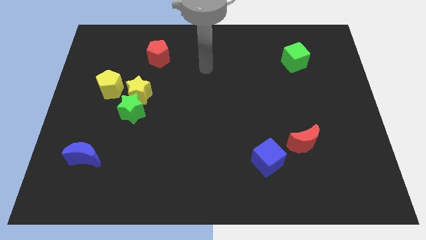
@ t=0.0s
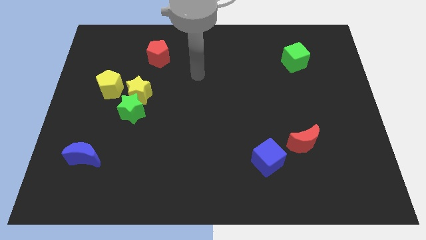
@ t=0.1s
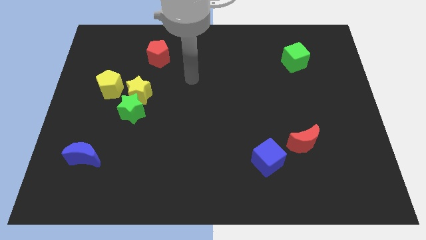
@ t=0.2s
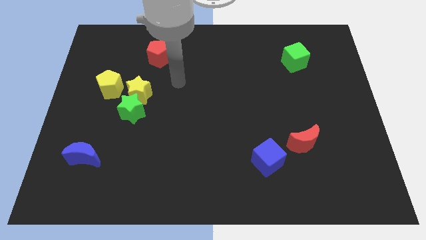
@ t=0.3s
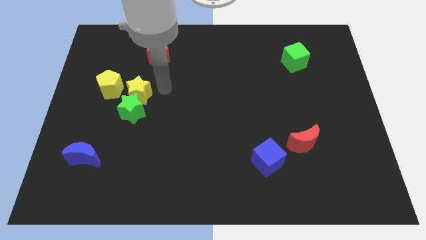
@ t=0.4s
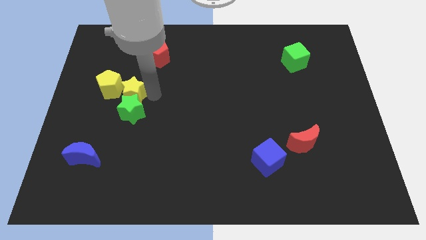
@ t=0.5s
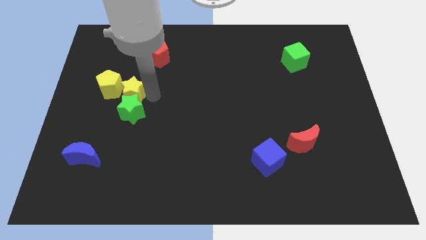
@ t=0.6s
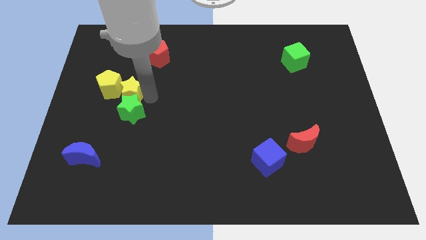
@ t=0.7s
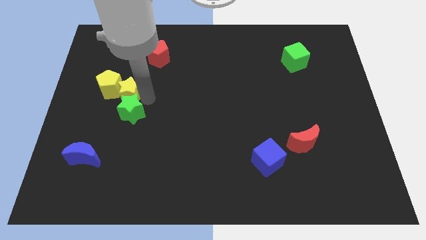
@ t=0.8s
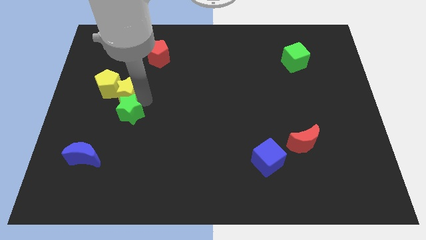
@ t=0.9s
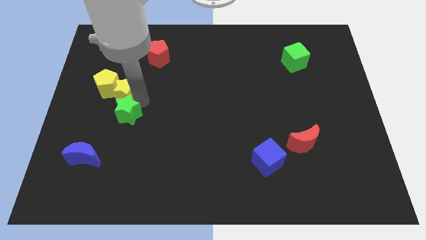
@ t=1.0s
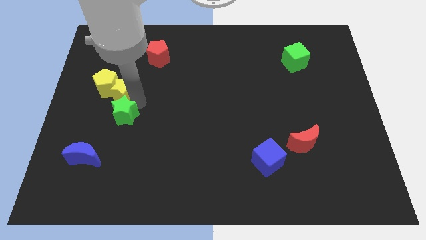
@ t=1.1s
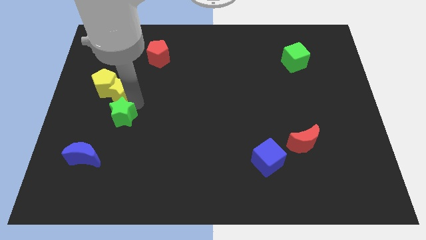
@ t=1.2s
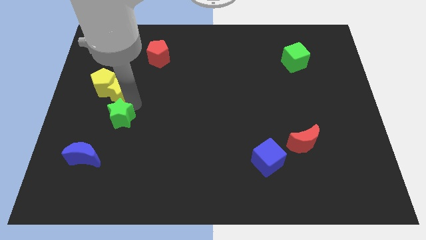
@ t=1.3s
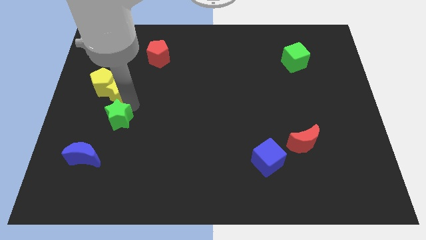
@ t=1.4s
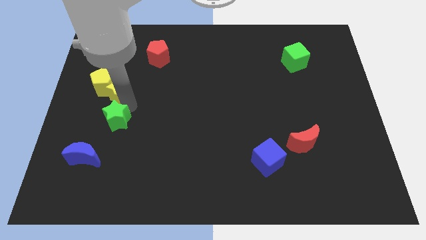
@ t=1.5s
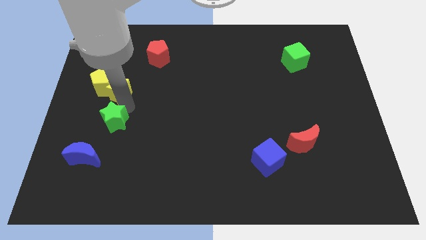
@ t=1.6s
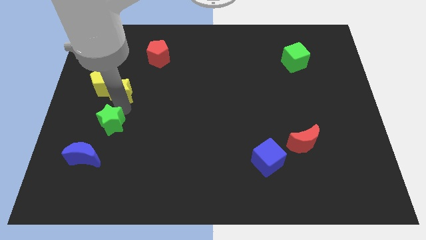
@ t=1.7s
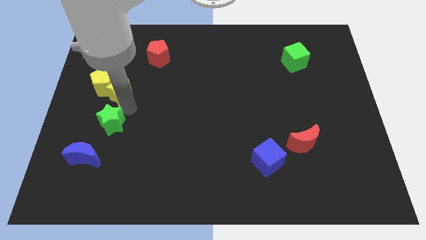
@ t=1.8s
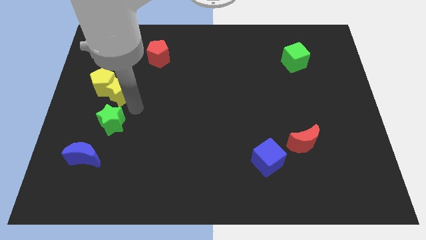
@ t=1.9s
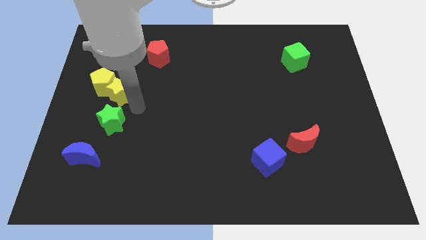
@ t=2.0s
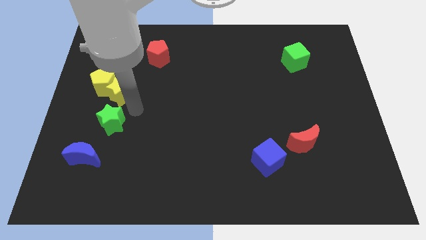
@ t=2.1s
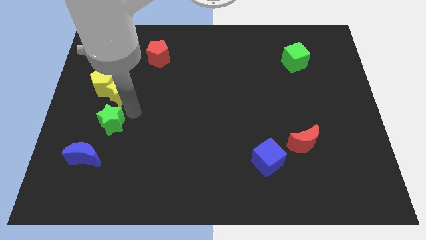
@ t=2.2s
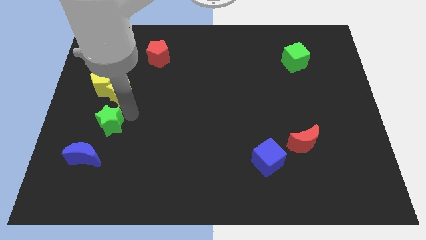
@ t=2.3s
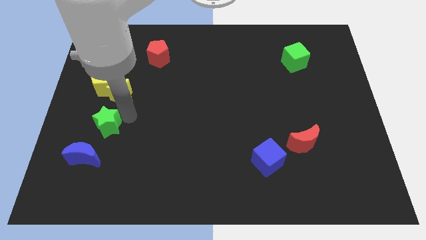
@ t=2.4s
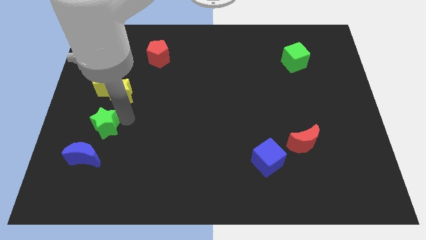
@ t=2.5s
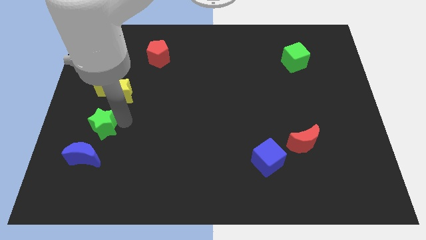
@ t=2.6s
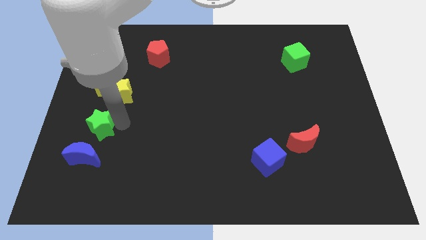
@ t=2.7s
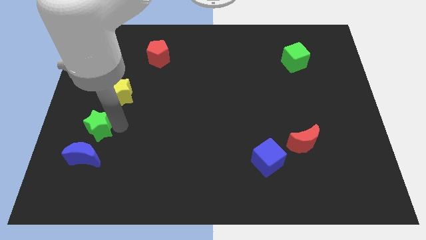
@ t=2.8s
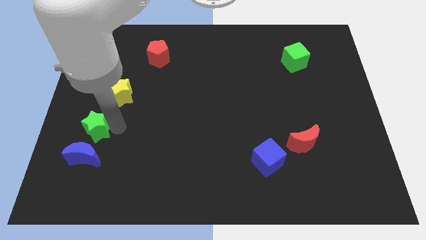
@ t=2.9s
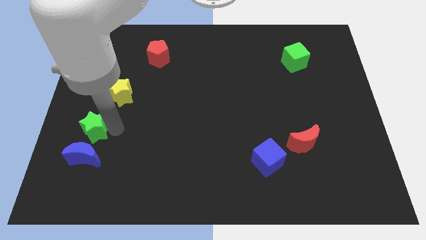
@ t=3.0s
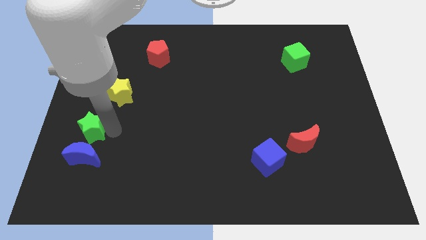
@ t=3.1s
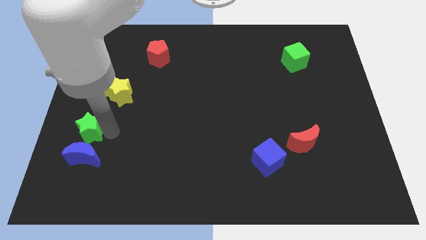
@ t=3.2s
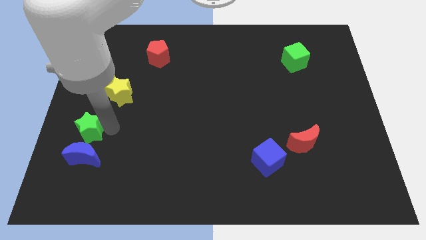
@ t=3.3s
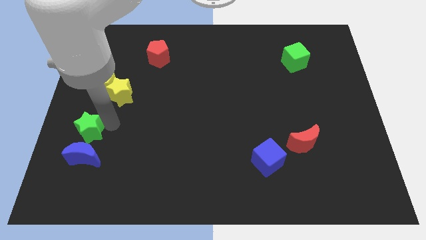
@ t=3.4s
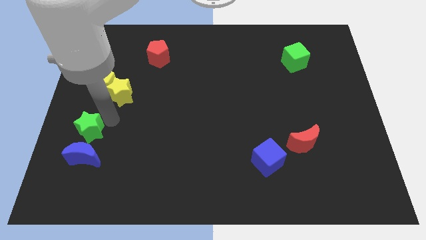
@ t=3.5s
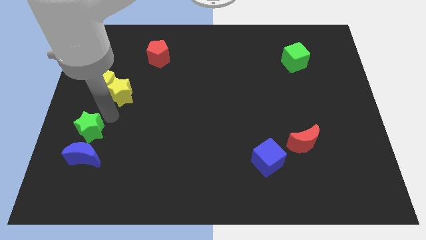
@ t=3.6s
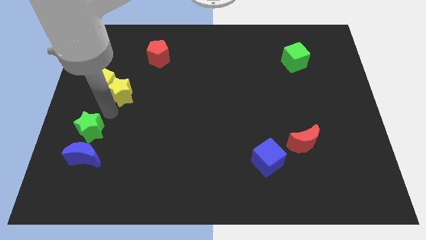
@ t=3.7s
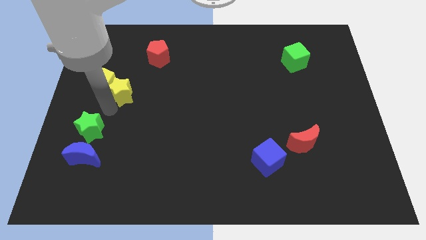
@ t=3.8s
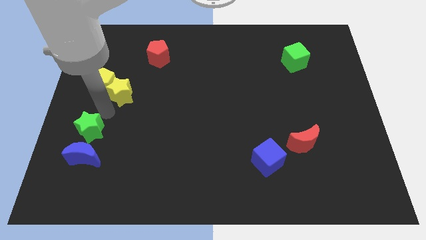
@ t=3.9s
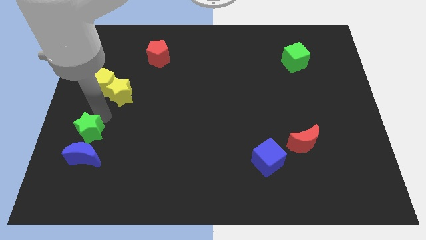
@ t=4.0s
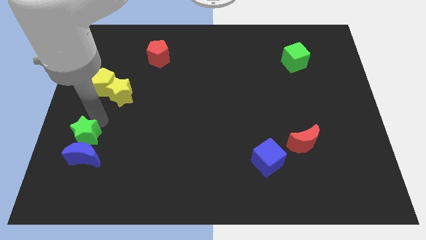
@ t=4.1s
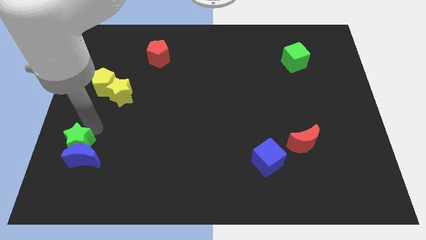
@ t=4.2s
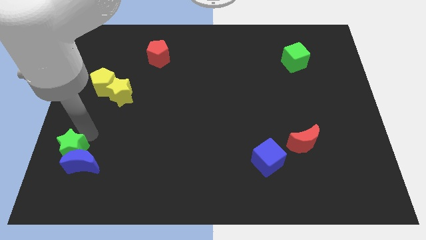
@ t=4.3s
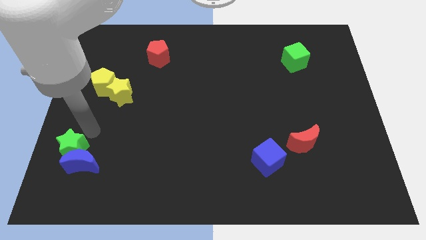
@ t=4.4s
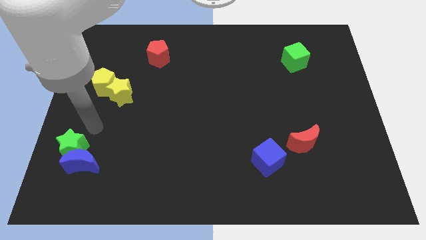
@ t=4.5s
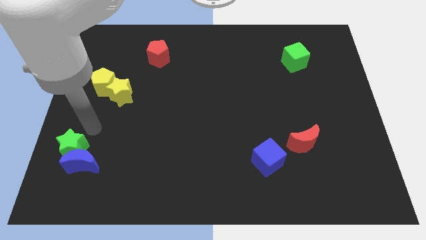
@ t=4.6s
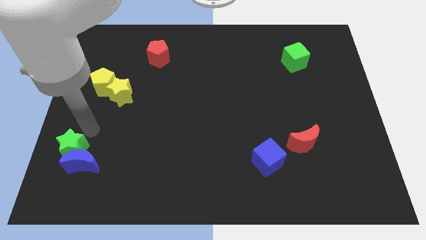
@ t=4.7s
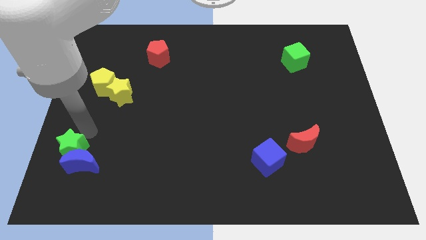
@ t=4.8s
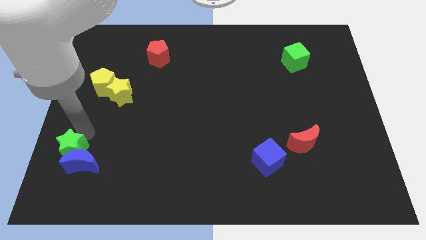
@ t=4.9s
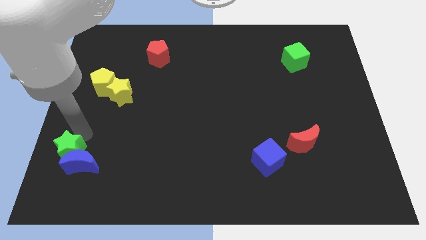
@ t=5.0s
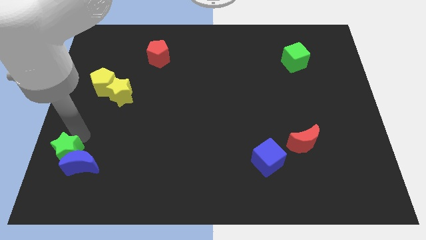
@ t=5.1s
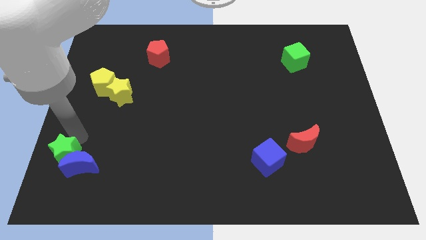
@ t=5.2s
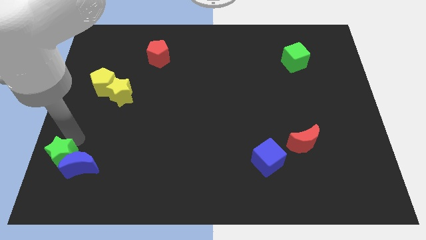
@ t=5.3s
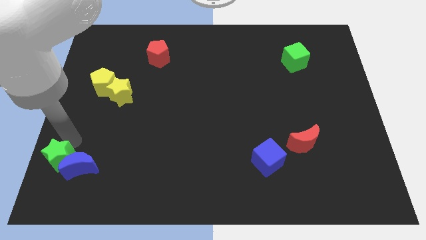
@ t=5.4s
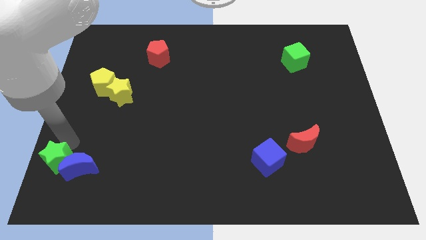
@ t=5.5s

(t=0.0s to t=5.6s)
move the green star to the bottom left

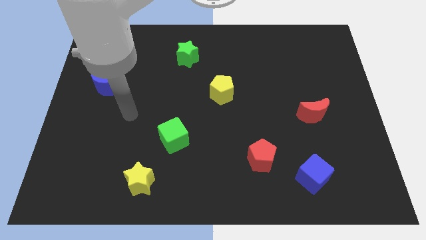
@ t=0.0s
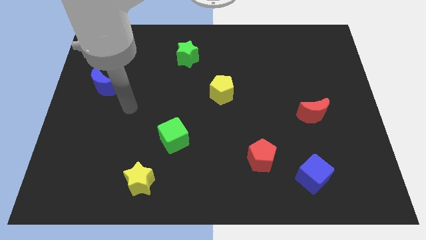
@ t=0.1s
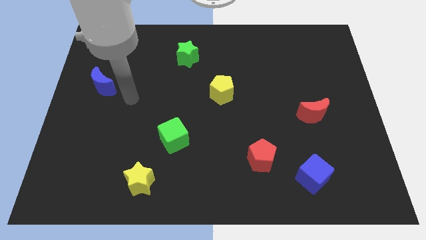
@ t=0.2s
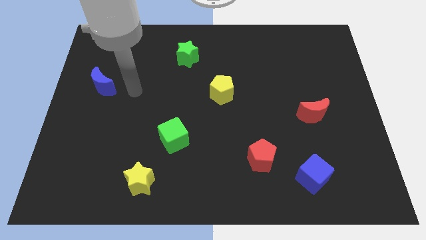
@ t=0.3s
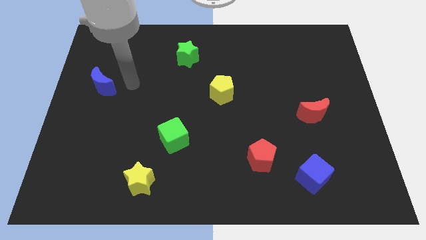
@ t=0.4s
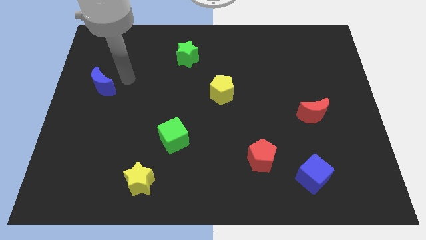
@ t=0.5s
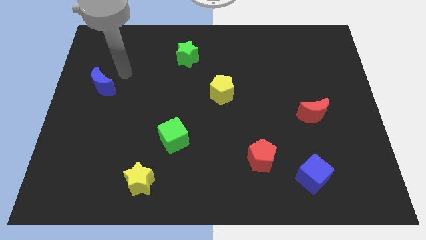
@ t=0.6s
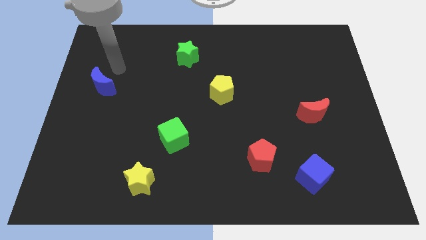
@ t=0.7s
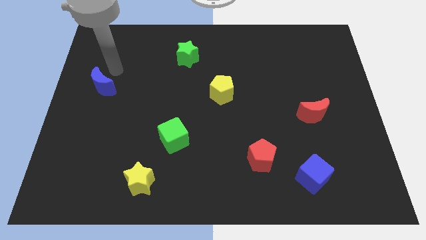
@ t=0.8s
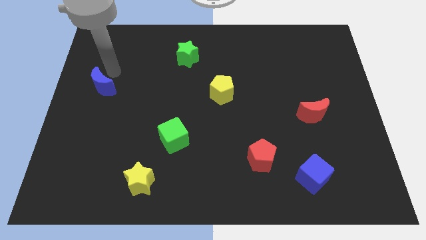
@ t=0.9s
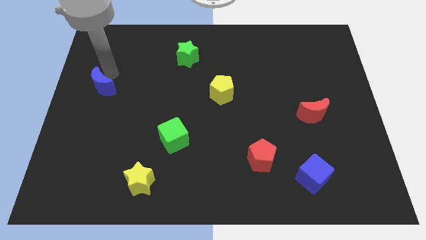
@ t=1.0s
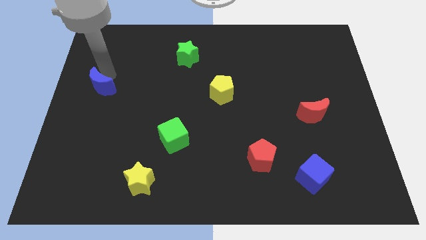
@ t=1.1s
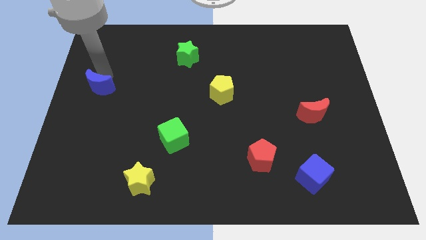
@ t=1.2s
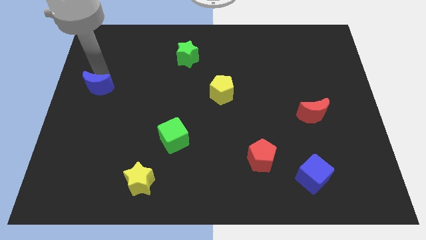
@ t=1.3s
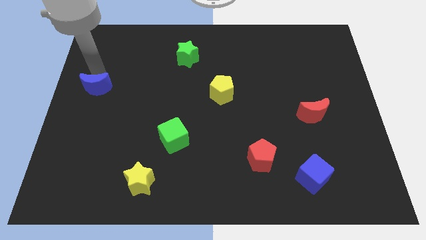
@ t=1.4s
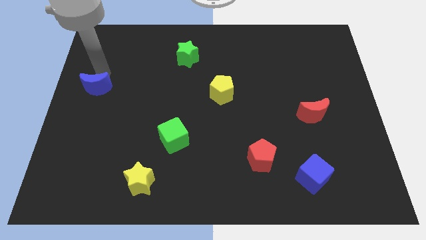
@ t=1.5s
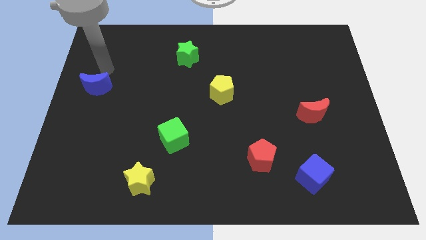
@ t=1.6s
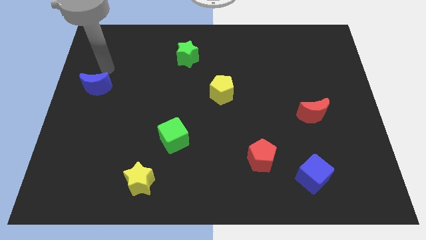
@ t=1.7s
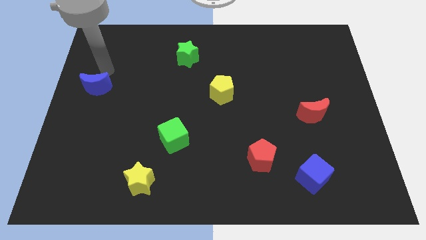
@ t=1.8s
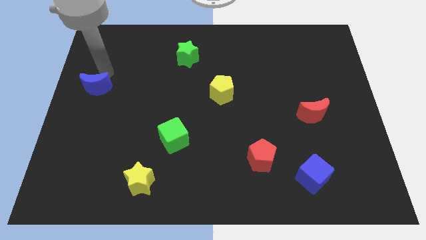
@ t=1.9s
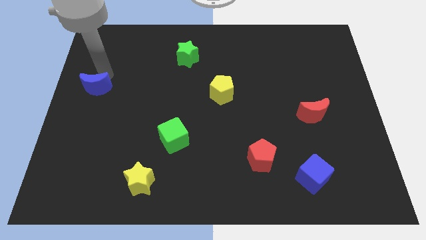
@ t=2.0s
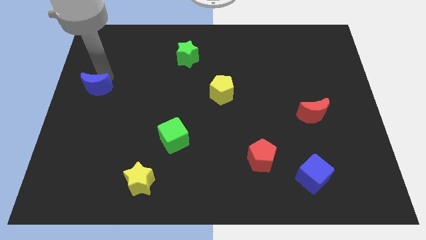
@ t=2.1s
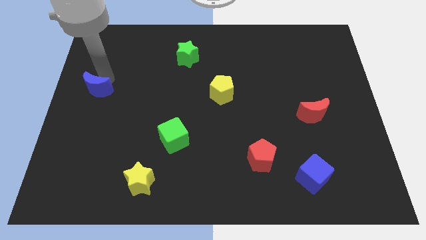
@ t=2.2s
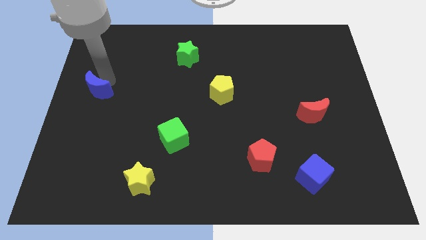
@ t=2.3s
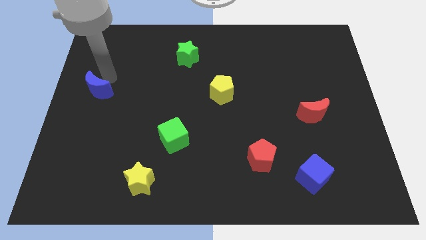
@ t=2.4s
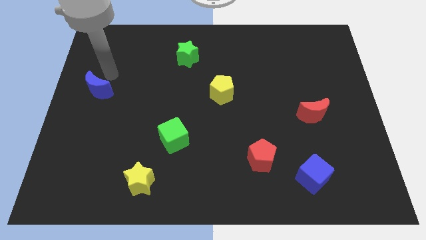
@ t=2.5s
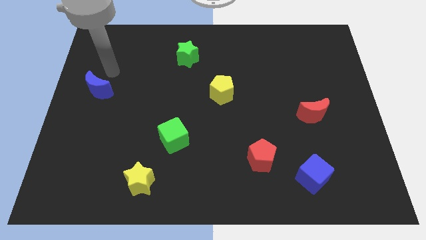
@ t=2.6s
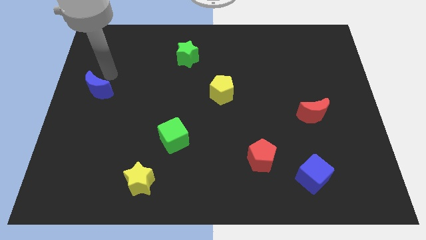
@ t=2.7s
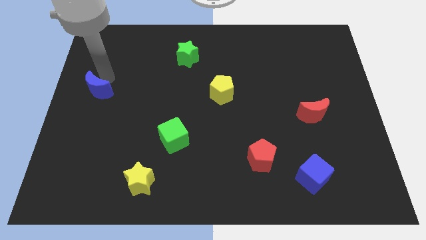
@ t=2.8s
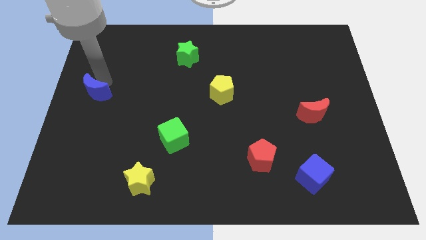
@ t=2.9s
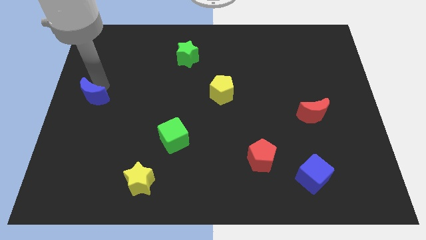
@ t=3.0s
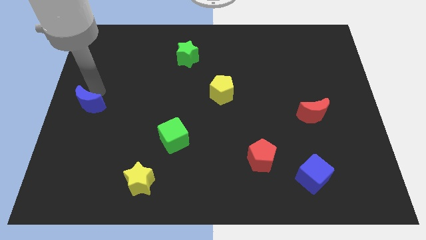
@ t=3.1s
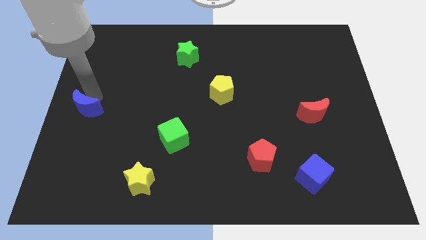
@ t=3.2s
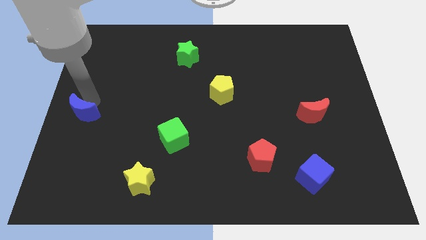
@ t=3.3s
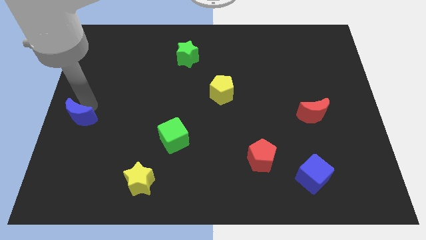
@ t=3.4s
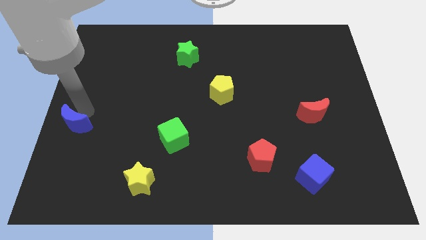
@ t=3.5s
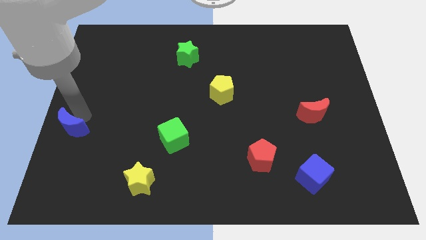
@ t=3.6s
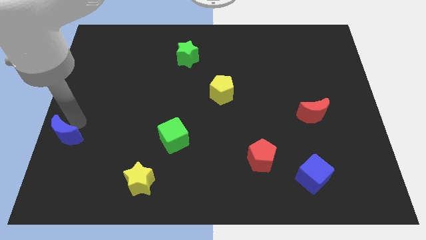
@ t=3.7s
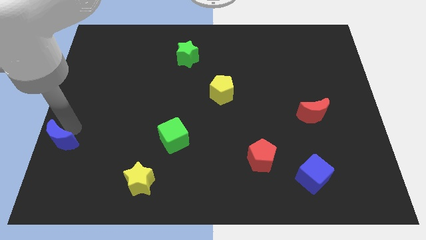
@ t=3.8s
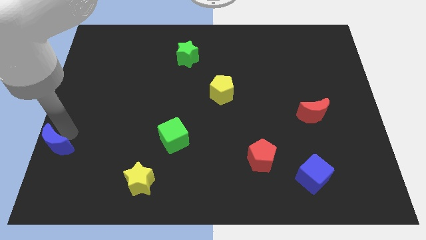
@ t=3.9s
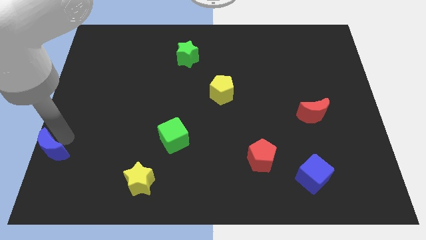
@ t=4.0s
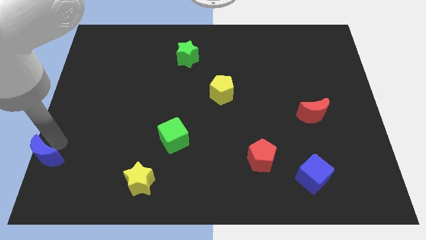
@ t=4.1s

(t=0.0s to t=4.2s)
put the blue moon to the bottom left of the board
